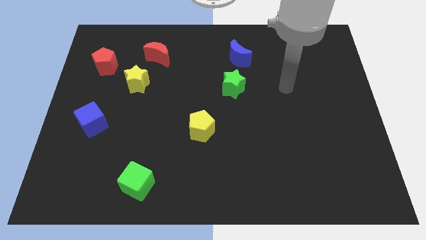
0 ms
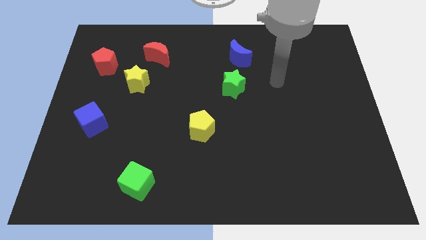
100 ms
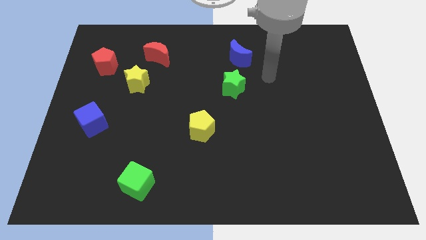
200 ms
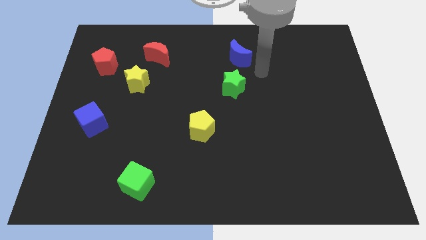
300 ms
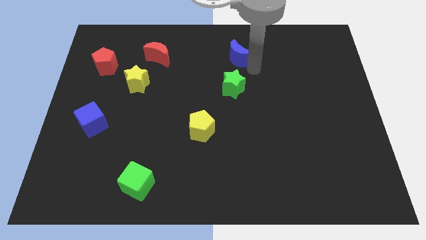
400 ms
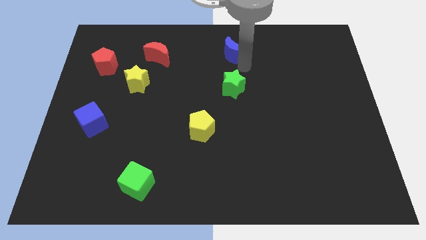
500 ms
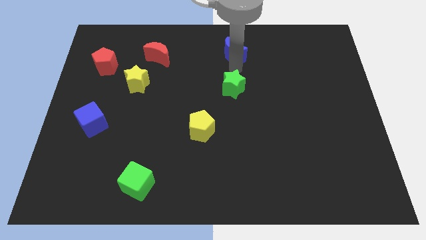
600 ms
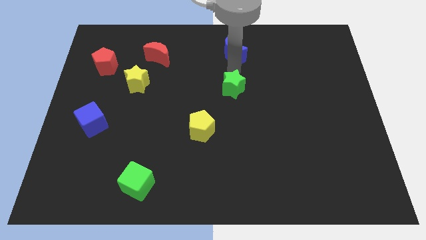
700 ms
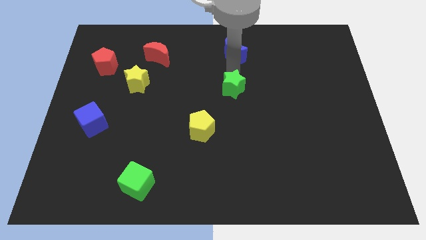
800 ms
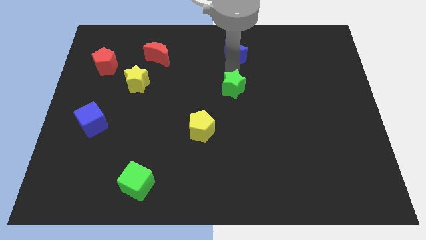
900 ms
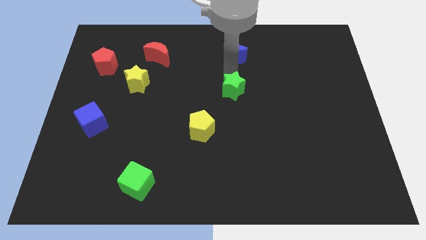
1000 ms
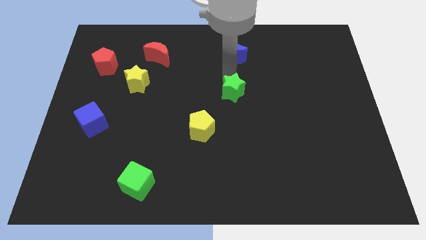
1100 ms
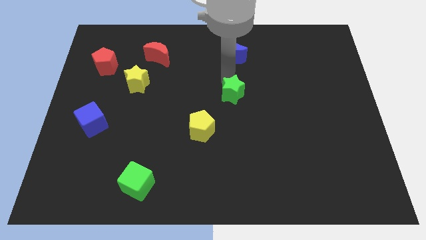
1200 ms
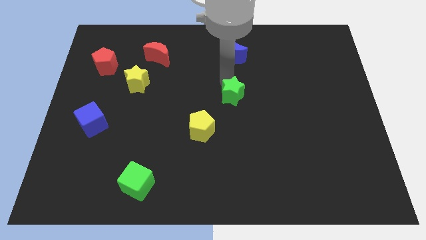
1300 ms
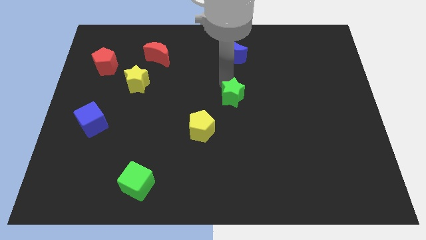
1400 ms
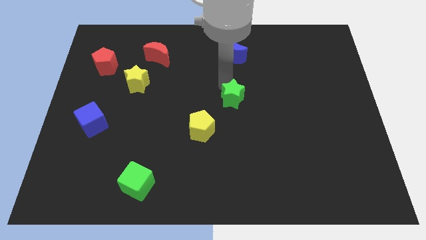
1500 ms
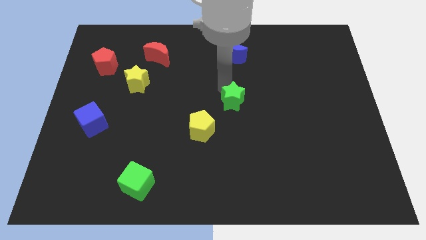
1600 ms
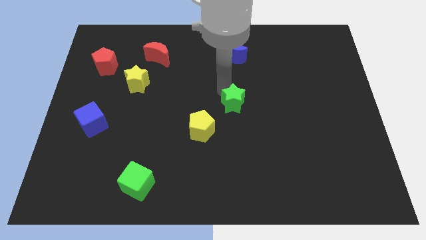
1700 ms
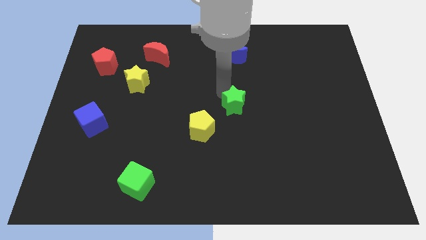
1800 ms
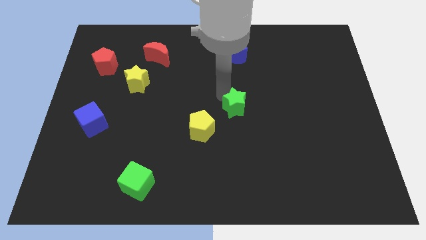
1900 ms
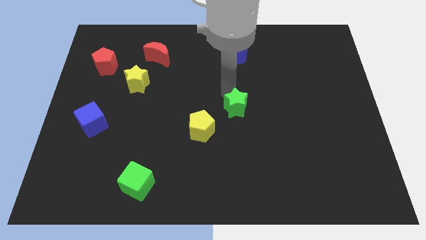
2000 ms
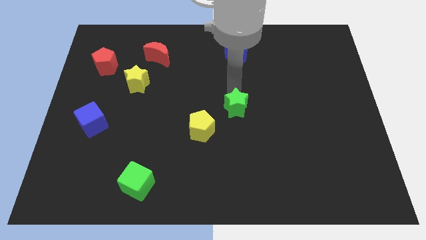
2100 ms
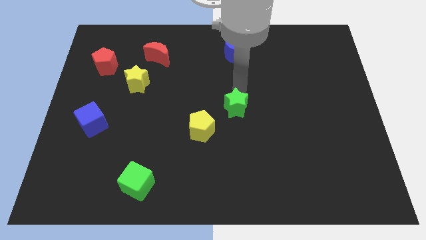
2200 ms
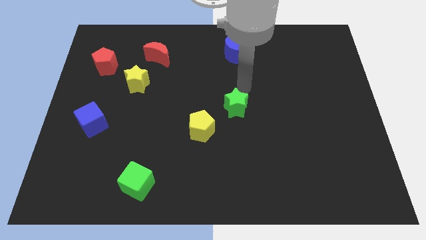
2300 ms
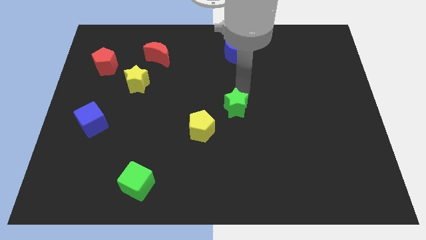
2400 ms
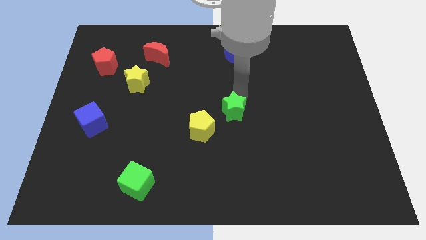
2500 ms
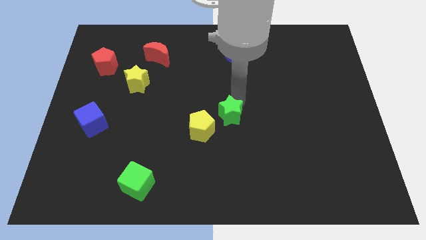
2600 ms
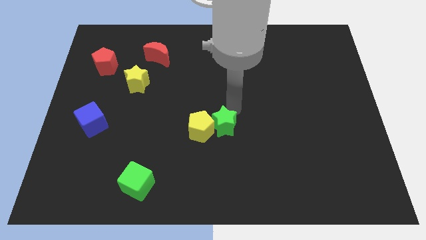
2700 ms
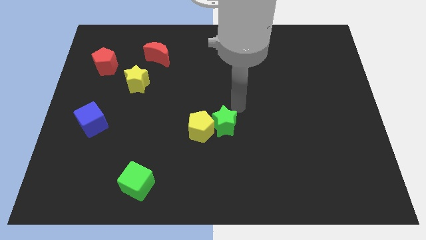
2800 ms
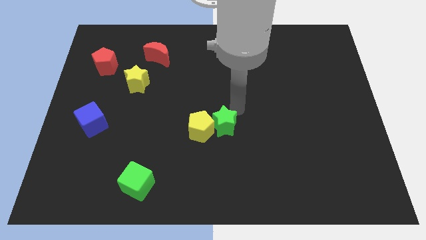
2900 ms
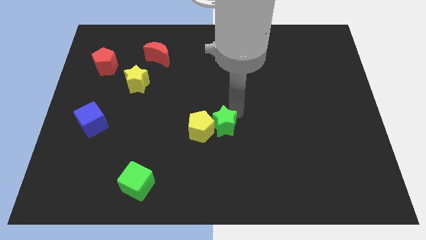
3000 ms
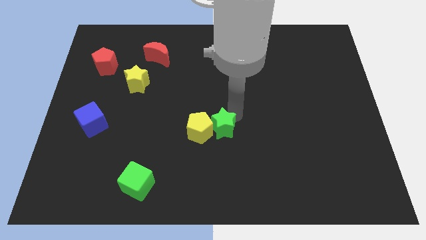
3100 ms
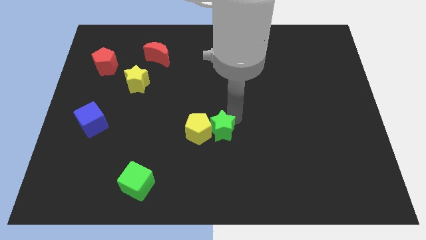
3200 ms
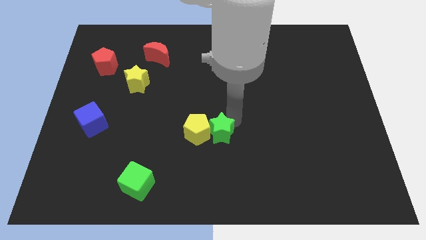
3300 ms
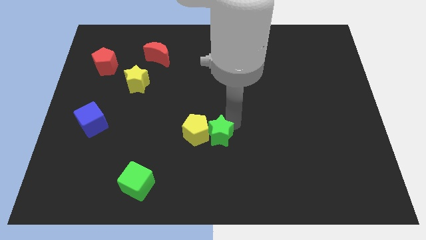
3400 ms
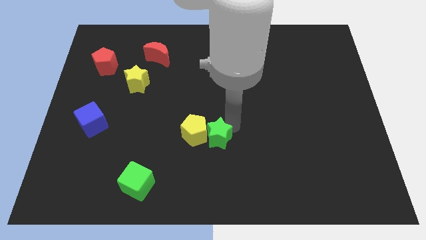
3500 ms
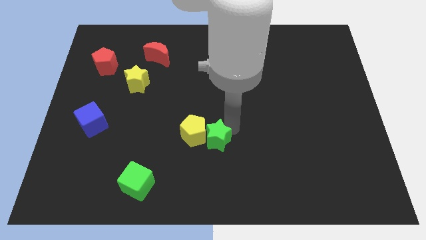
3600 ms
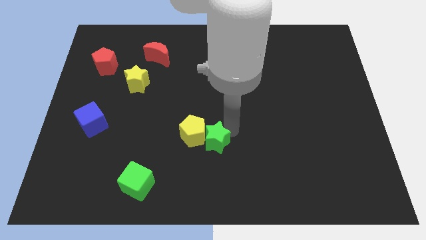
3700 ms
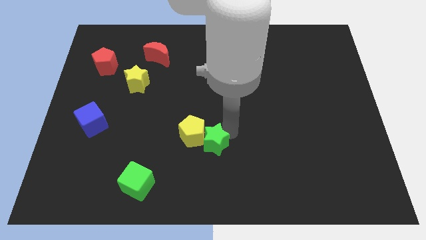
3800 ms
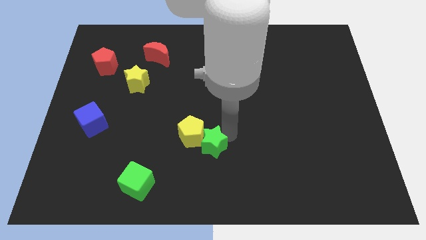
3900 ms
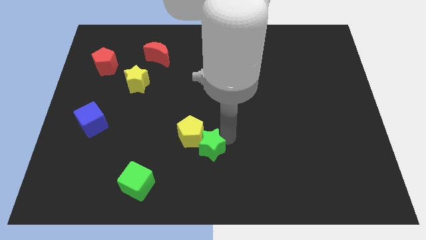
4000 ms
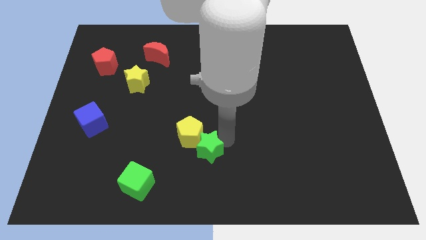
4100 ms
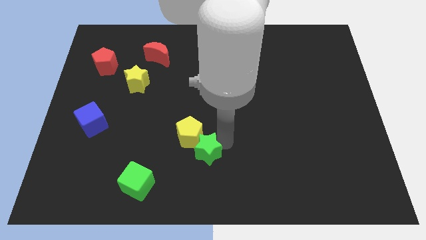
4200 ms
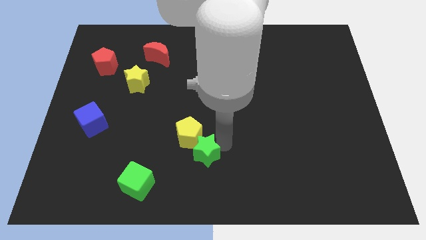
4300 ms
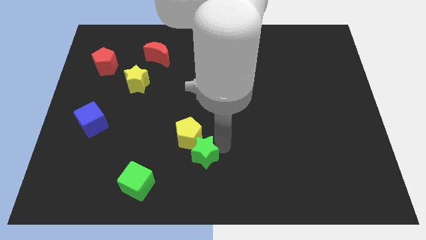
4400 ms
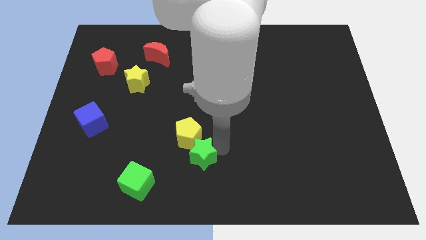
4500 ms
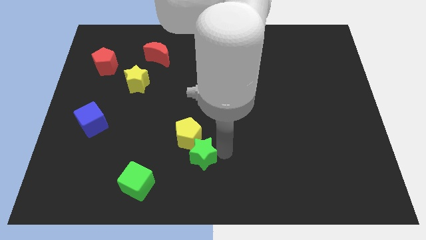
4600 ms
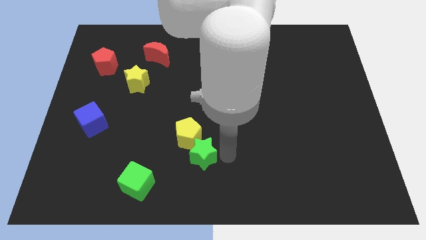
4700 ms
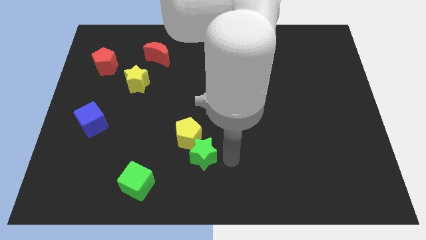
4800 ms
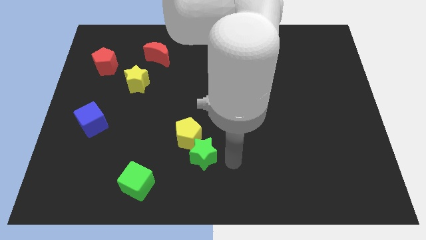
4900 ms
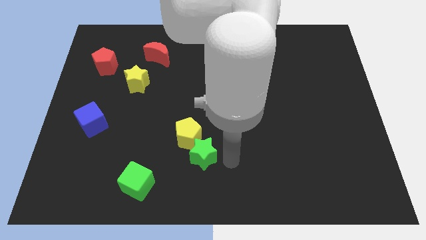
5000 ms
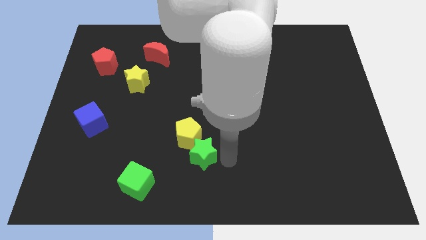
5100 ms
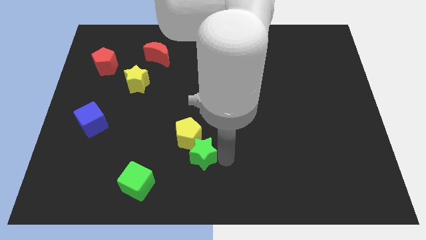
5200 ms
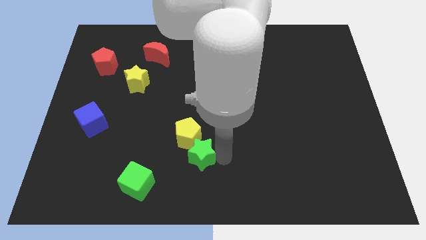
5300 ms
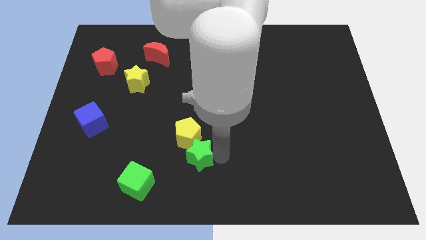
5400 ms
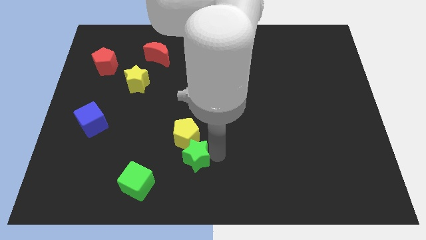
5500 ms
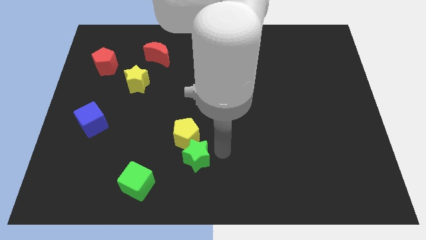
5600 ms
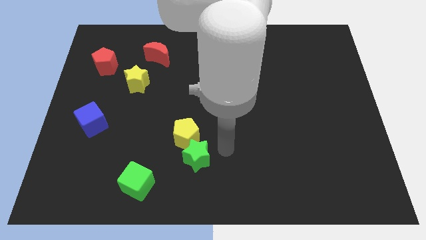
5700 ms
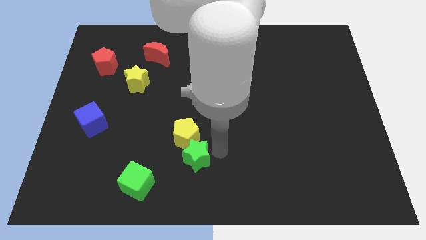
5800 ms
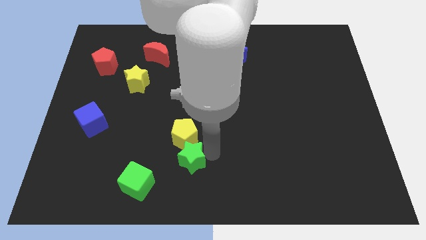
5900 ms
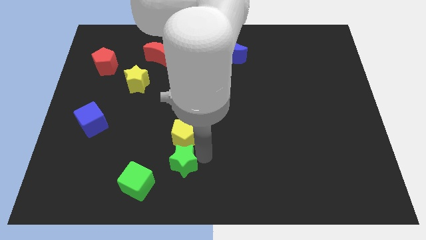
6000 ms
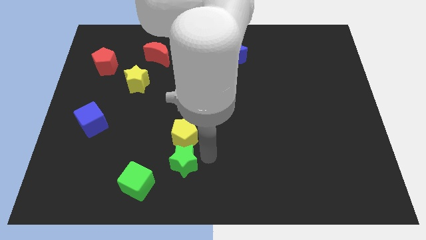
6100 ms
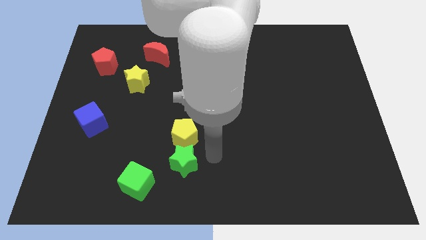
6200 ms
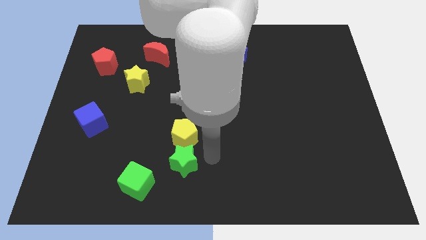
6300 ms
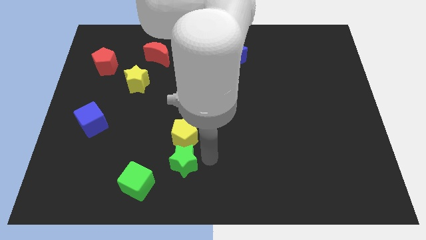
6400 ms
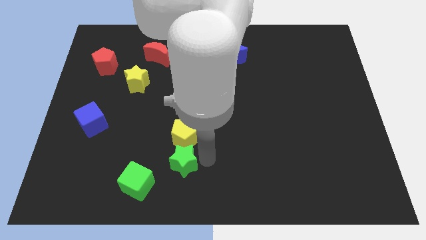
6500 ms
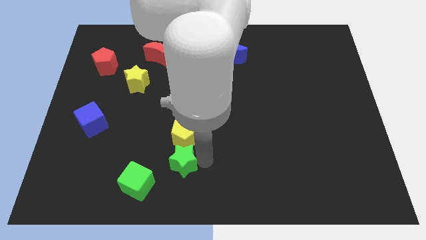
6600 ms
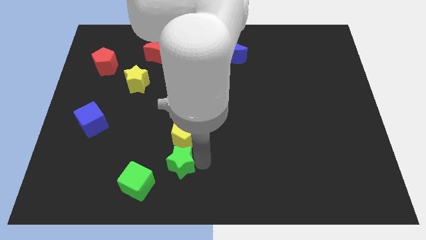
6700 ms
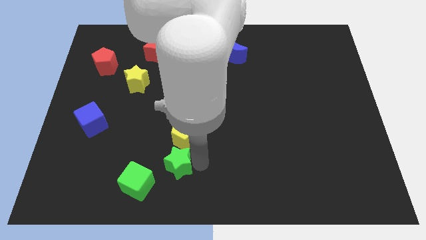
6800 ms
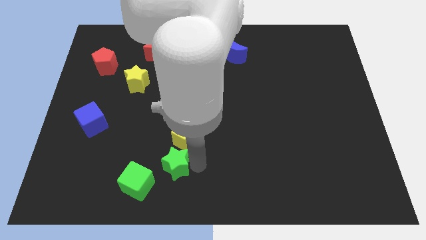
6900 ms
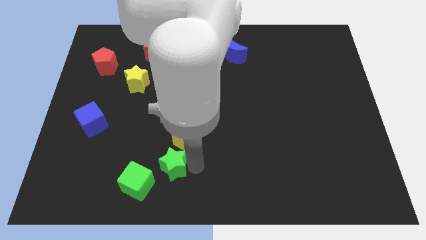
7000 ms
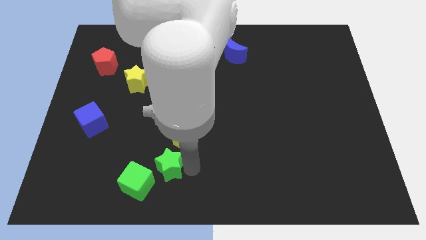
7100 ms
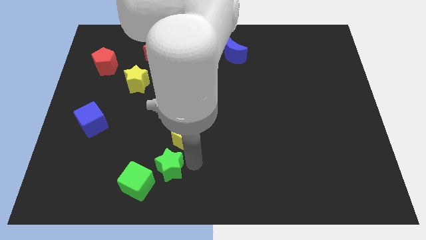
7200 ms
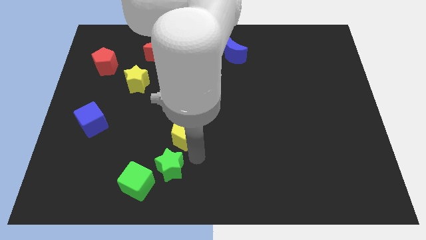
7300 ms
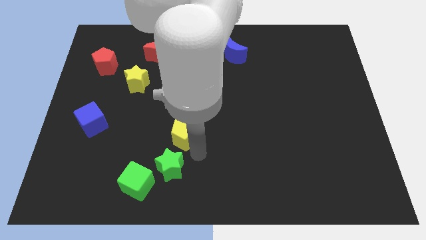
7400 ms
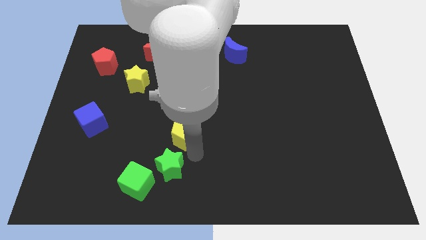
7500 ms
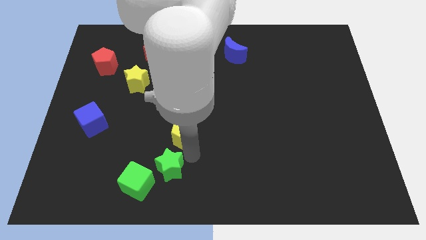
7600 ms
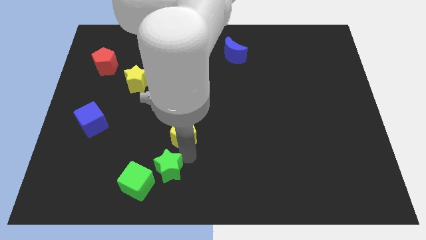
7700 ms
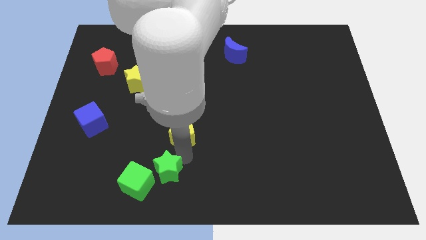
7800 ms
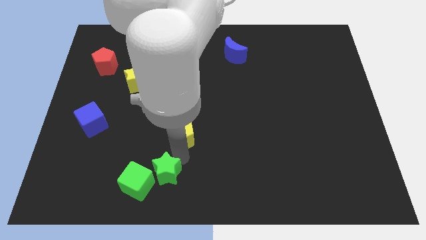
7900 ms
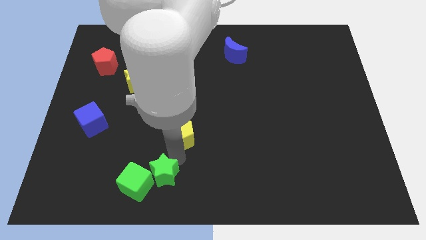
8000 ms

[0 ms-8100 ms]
slide the green star towards the green cube
